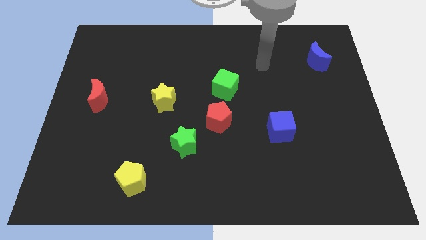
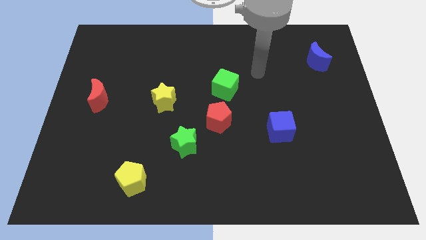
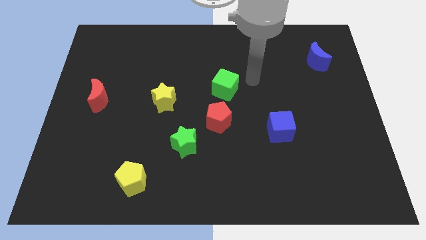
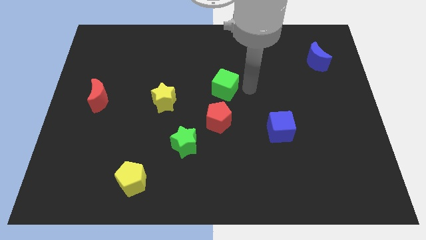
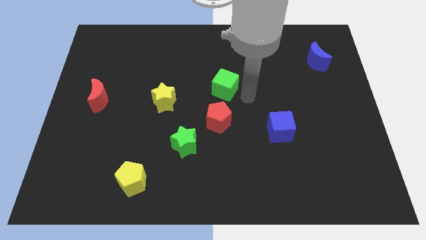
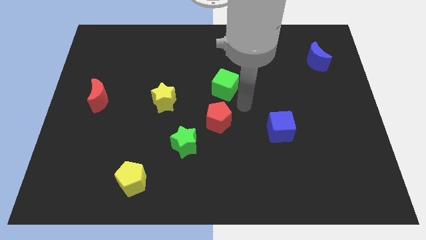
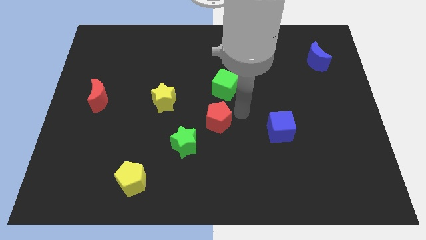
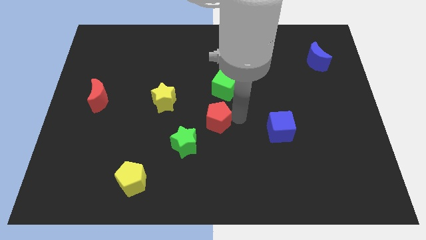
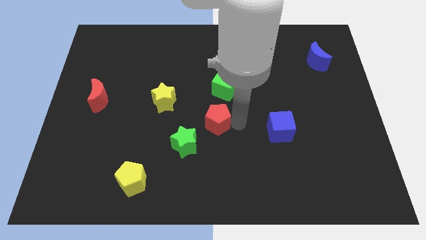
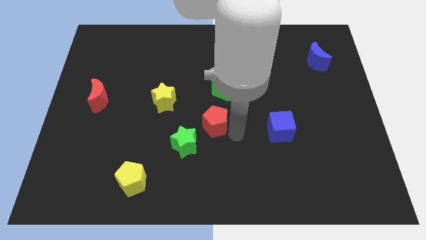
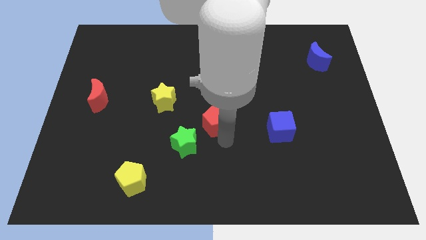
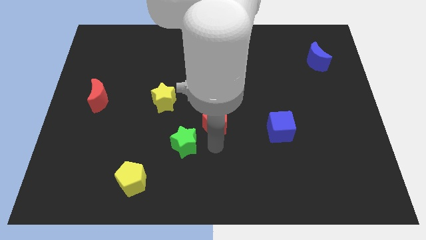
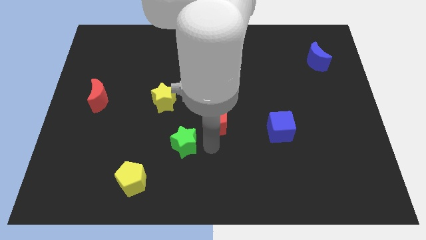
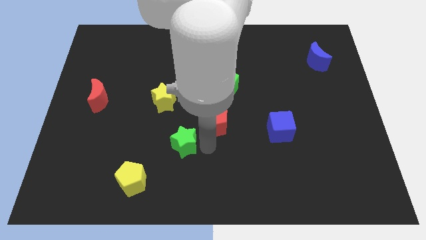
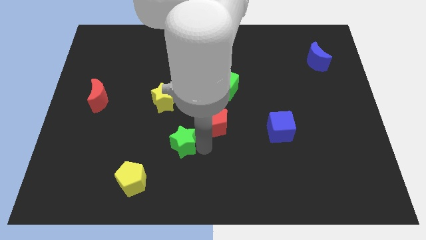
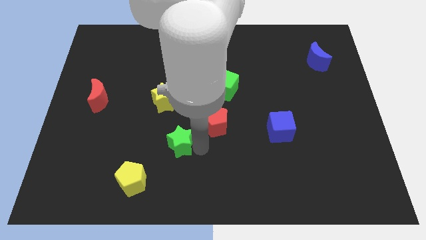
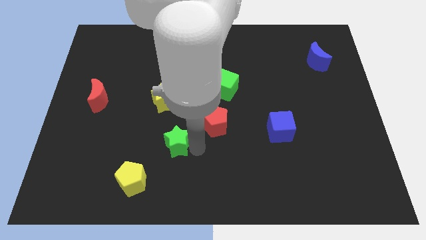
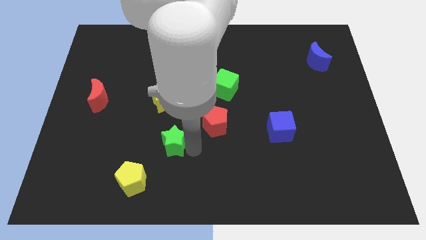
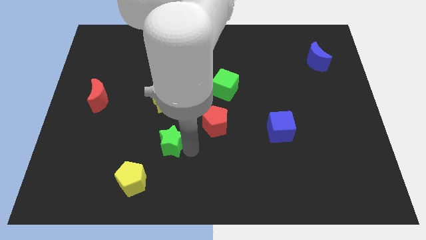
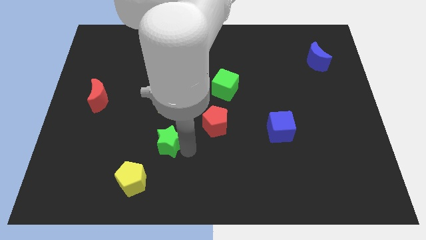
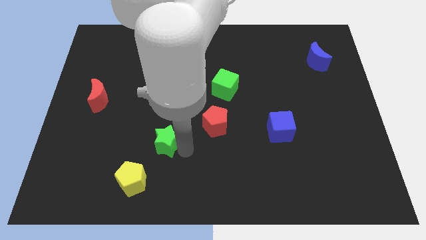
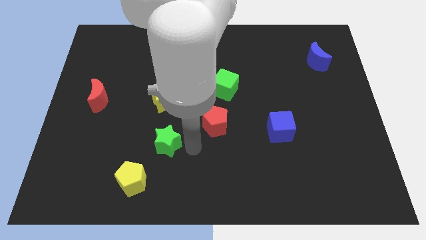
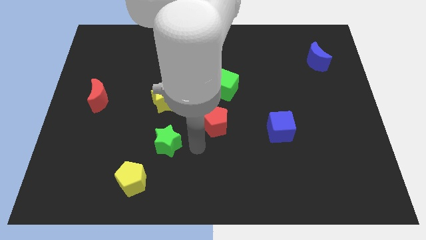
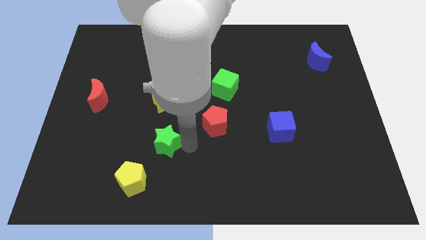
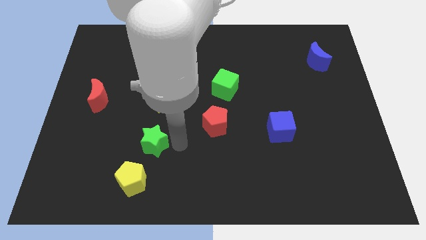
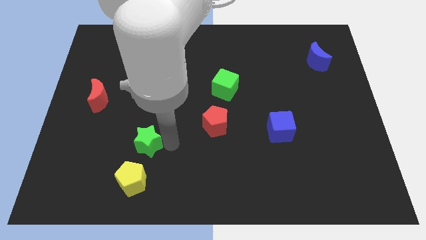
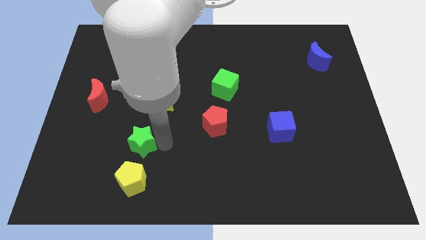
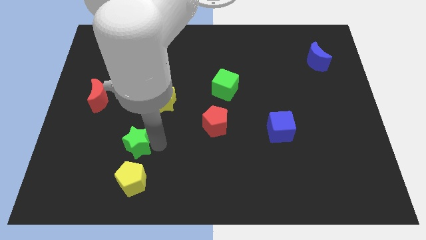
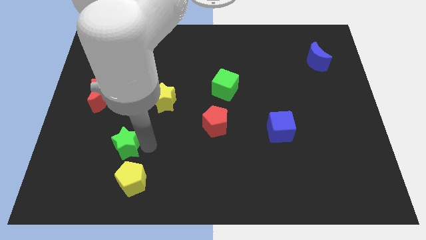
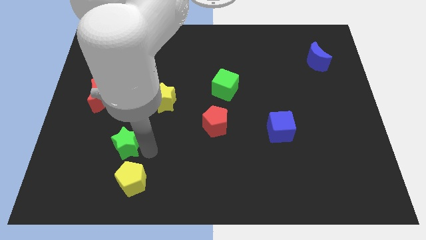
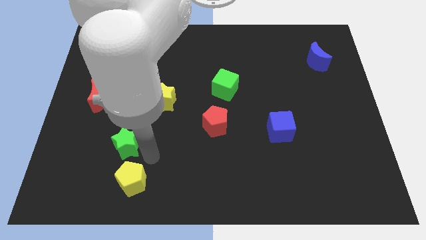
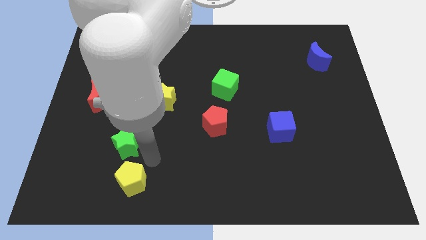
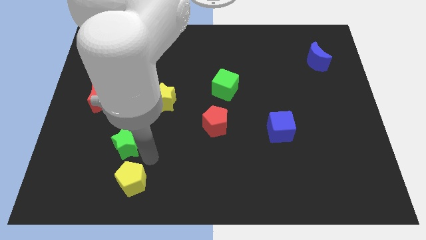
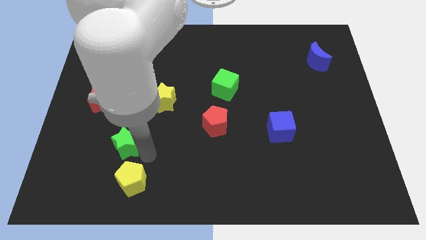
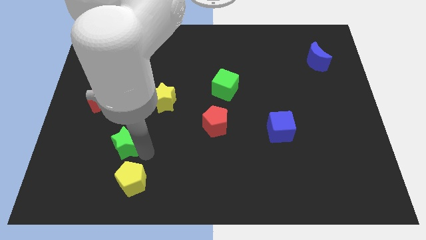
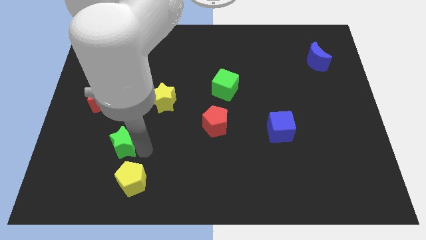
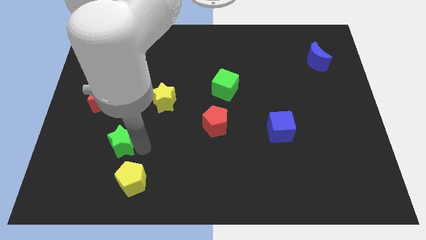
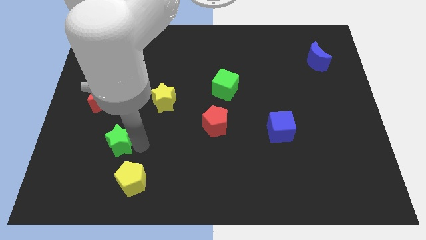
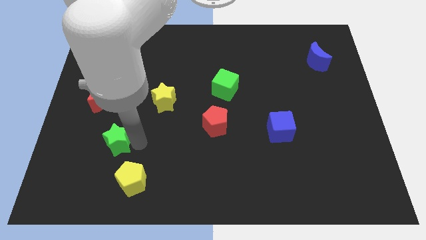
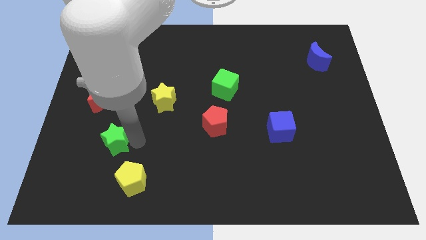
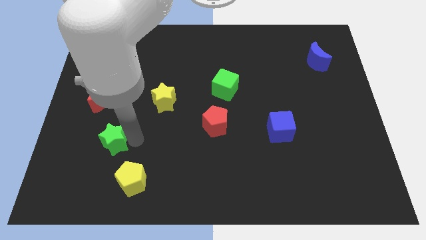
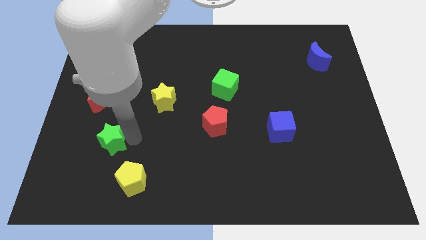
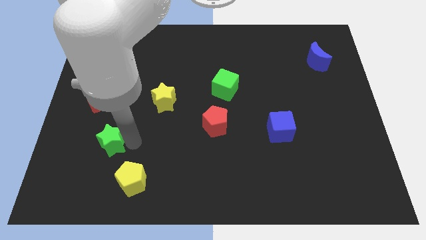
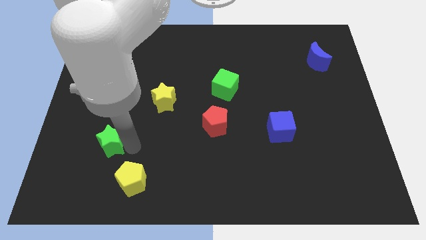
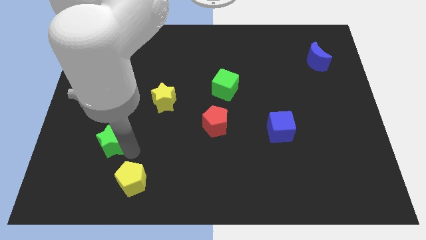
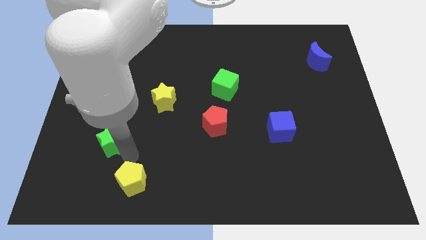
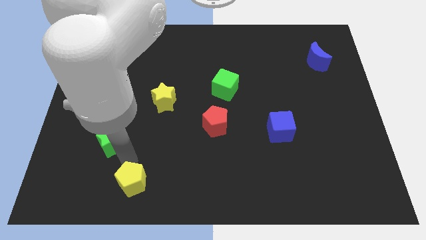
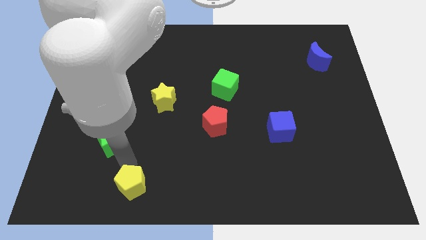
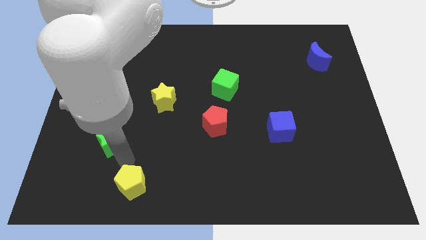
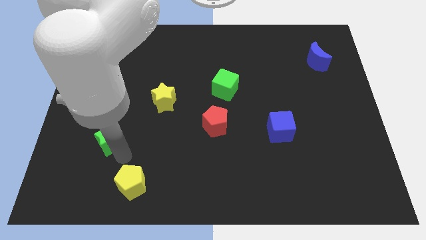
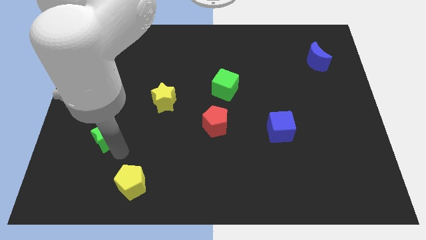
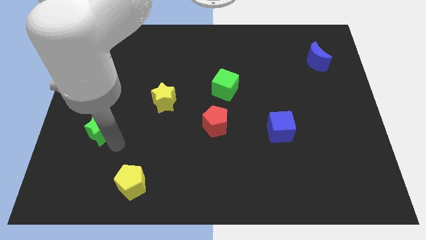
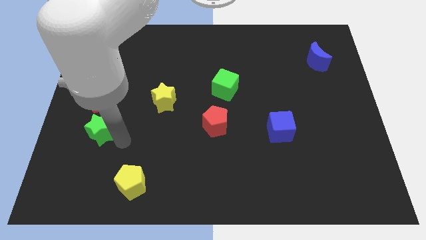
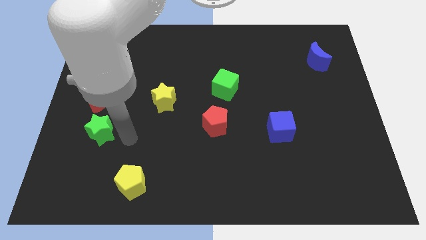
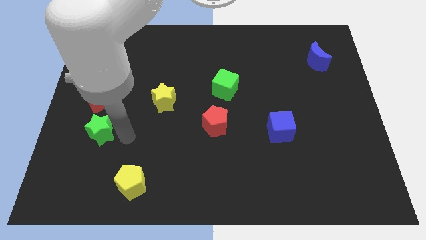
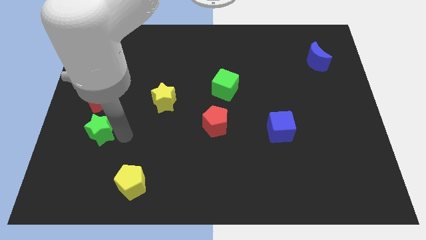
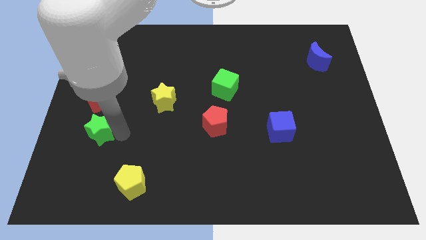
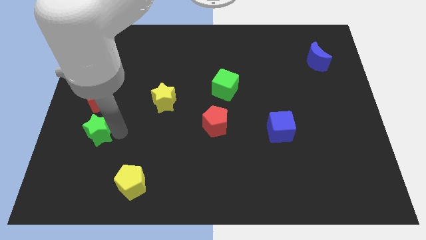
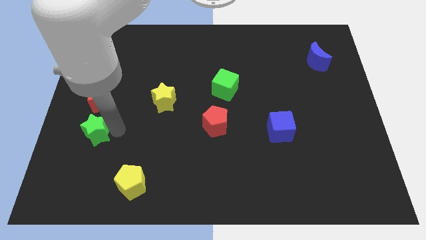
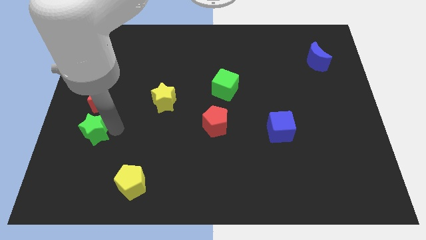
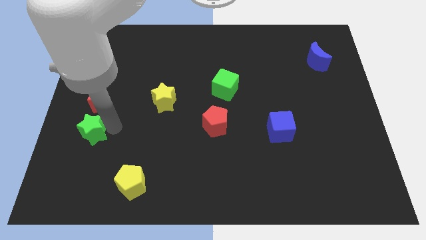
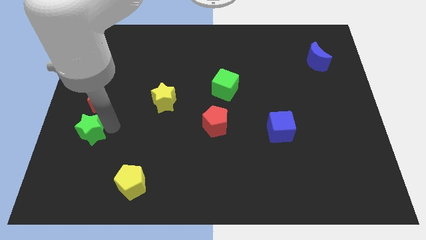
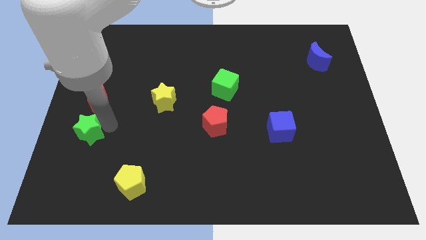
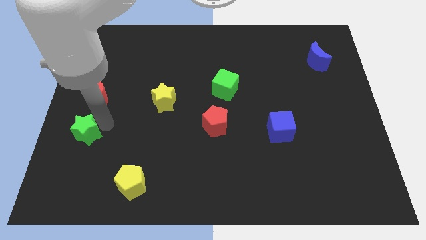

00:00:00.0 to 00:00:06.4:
put the green star to the left side of the board

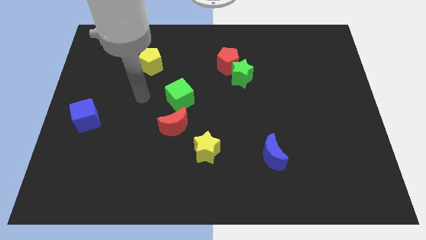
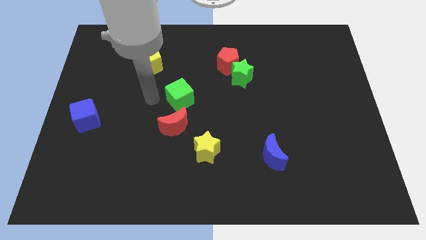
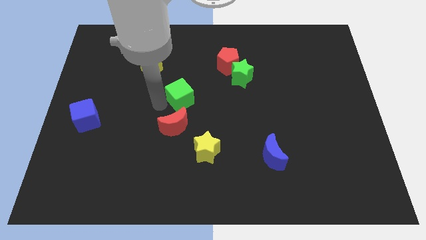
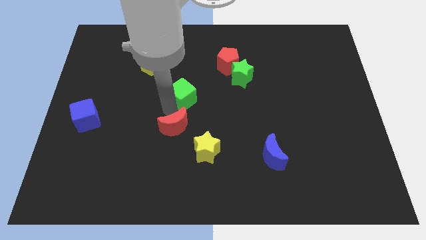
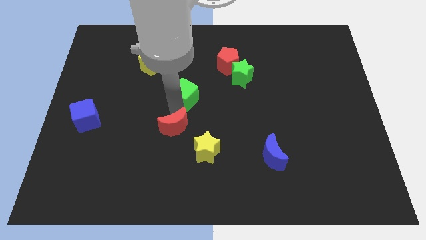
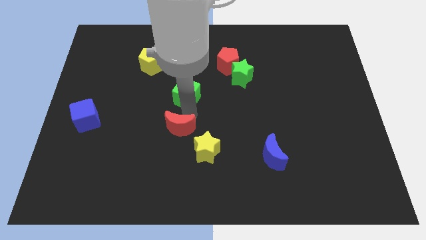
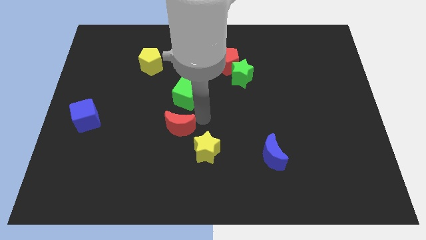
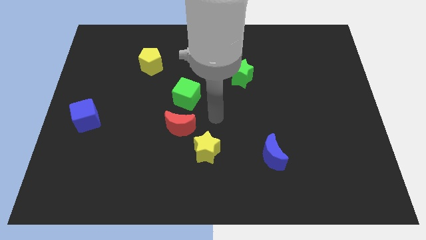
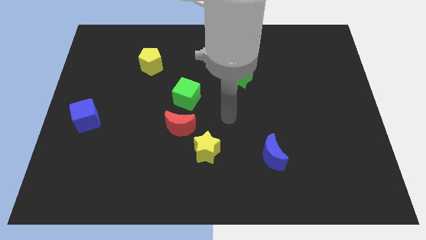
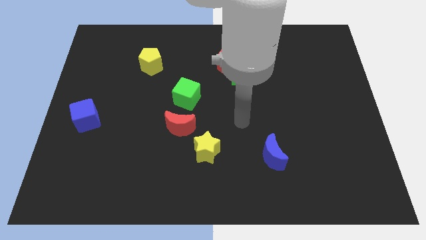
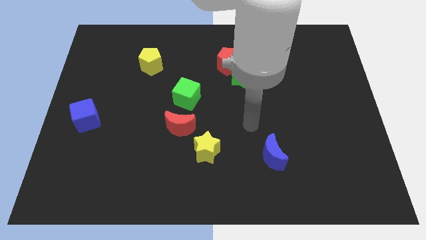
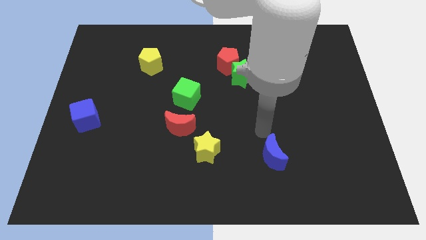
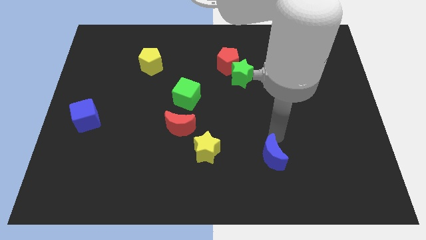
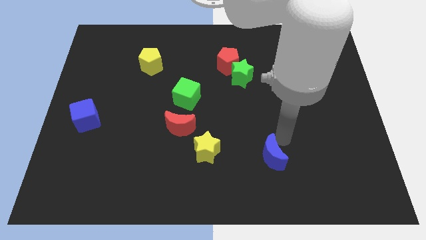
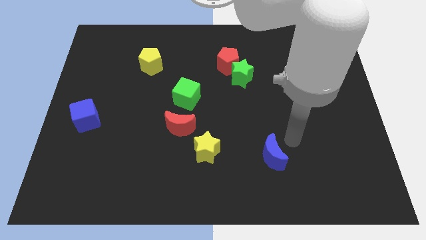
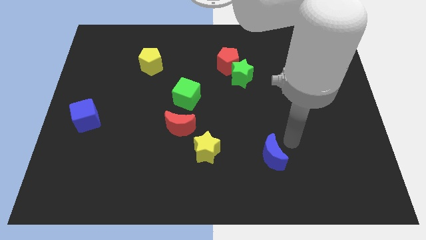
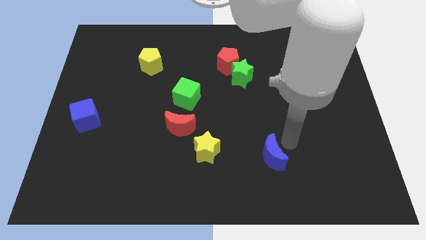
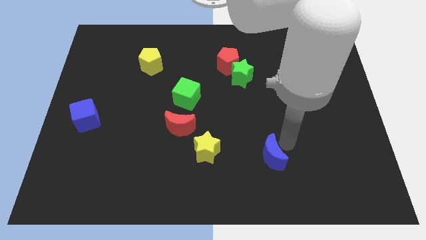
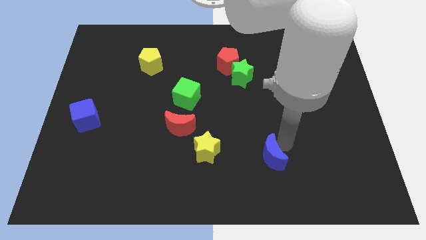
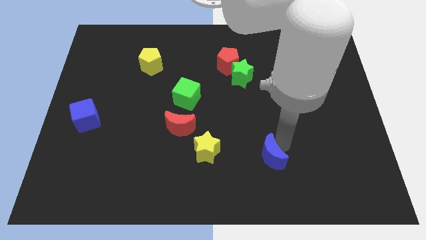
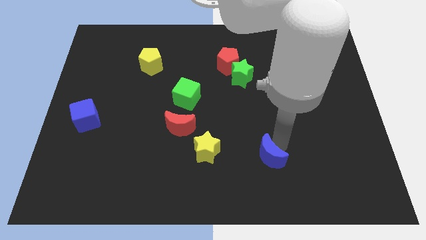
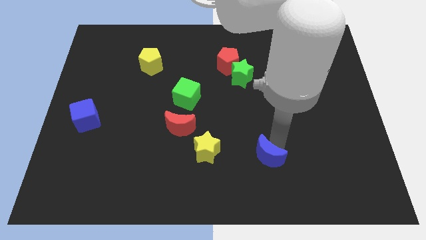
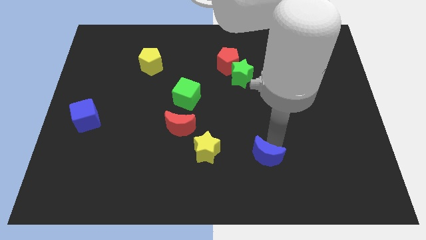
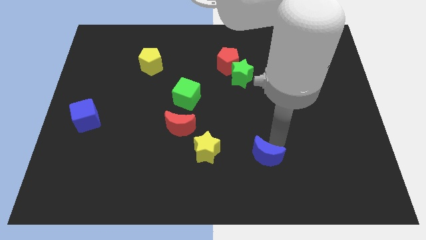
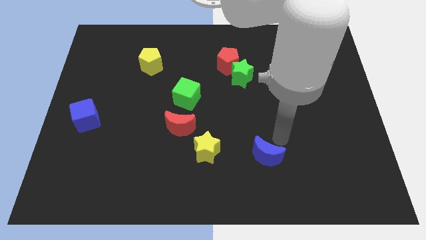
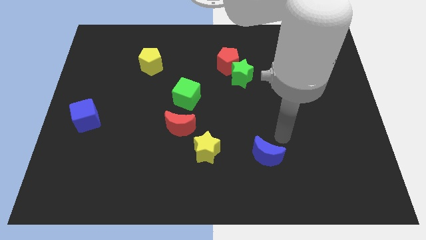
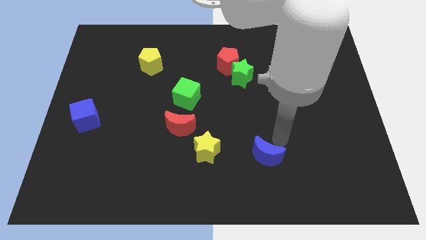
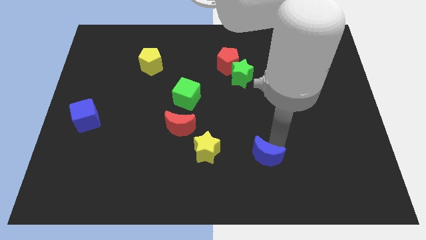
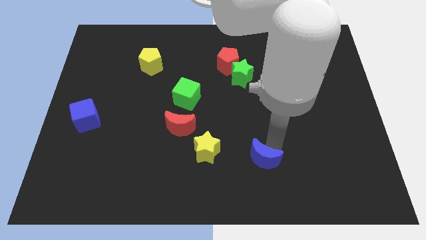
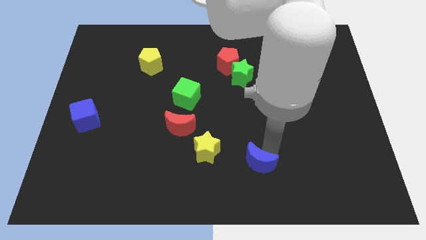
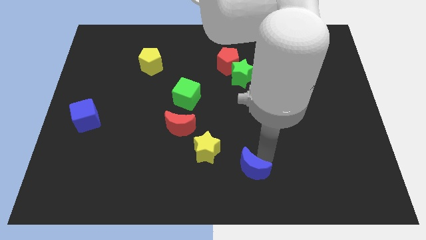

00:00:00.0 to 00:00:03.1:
slide the blue moon to the bottom side
